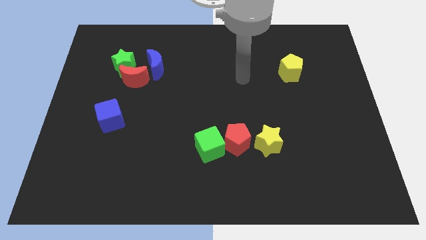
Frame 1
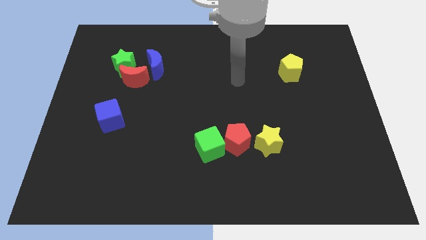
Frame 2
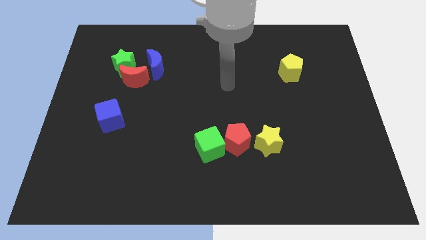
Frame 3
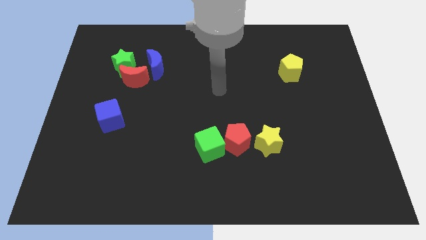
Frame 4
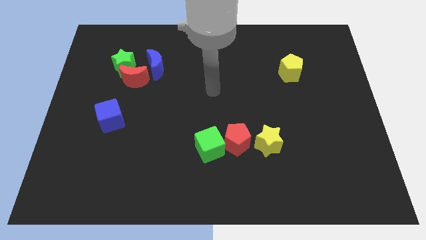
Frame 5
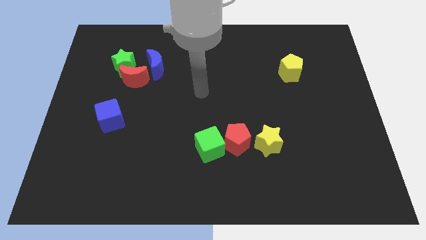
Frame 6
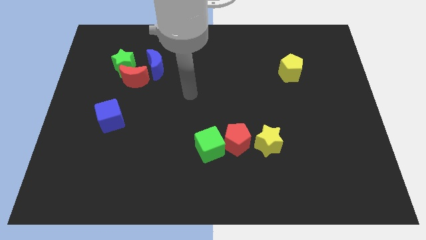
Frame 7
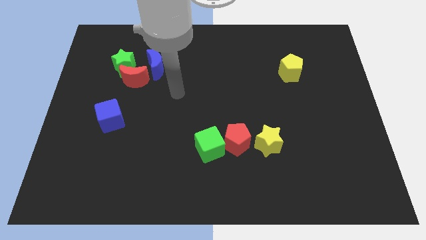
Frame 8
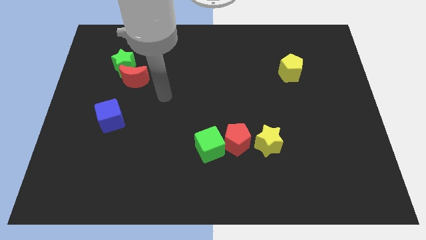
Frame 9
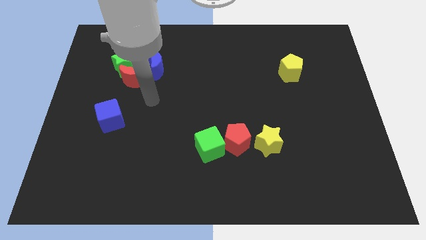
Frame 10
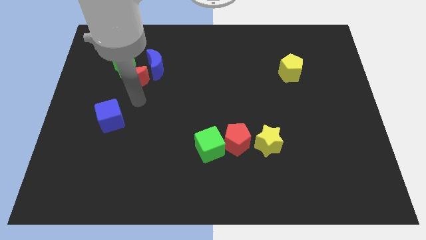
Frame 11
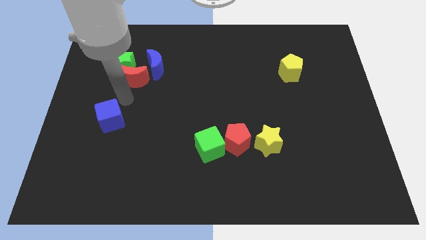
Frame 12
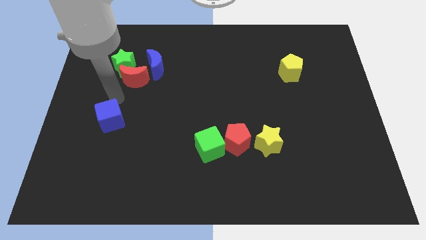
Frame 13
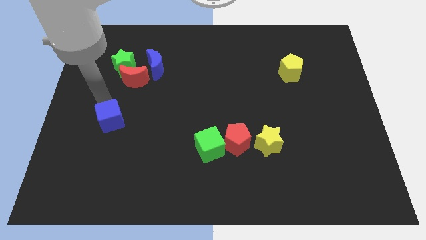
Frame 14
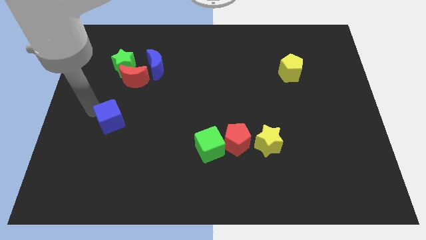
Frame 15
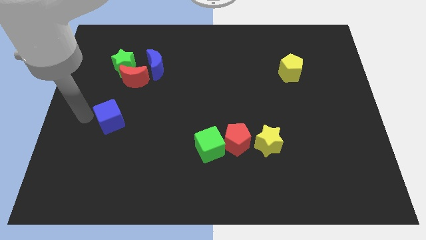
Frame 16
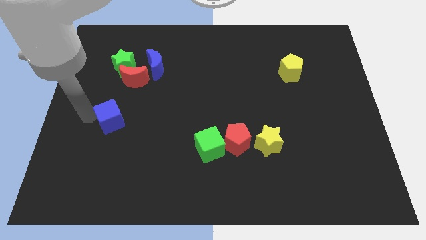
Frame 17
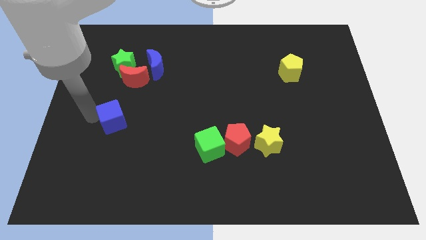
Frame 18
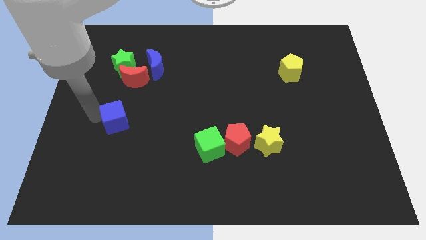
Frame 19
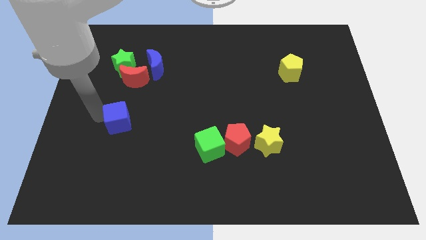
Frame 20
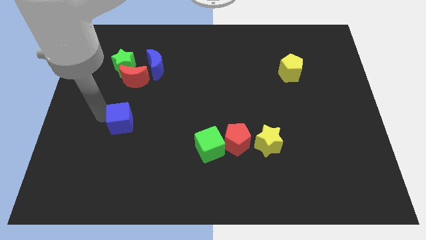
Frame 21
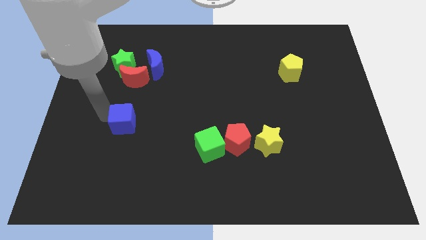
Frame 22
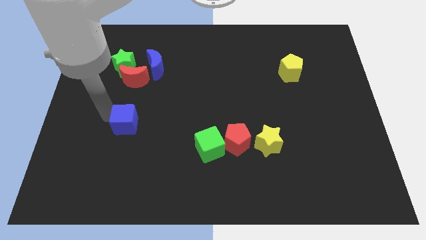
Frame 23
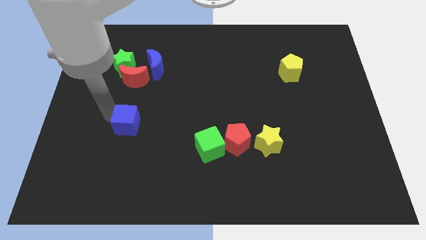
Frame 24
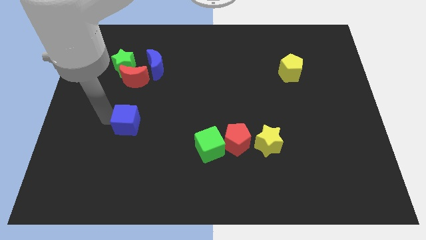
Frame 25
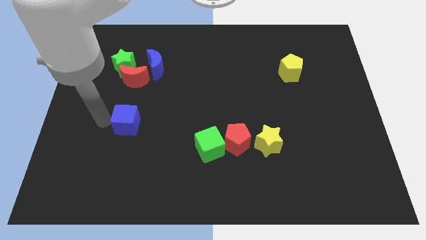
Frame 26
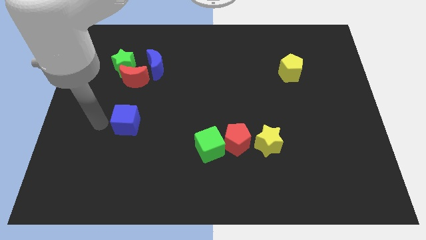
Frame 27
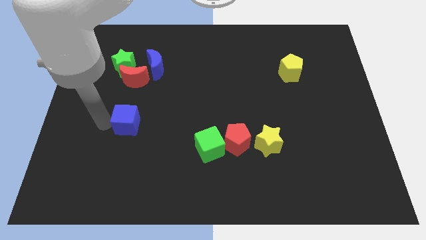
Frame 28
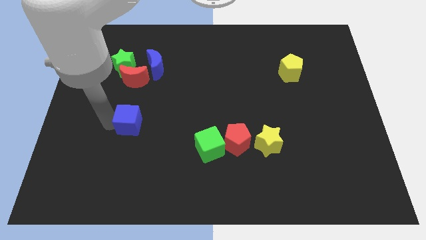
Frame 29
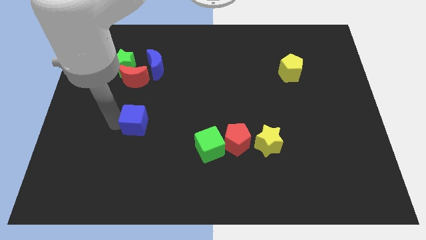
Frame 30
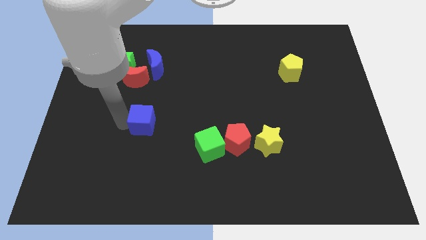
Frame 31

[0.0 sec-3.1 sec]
move the blue cube a little bit to the right

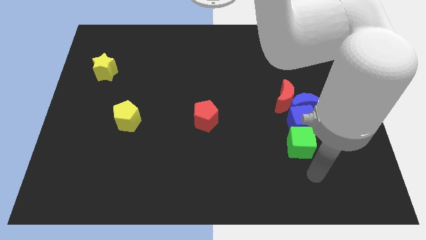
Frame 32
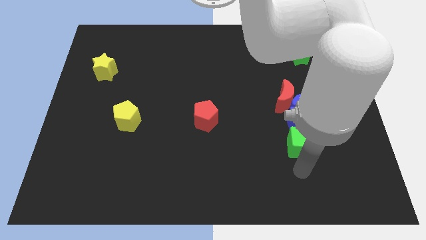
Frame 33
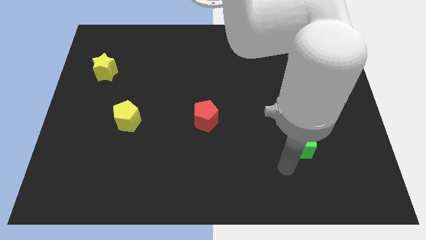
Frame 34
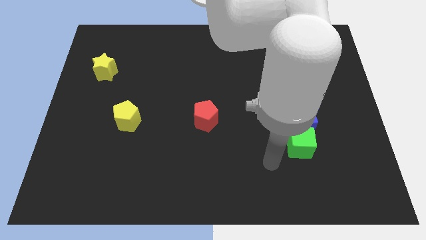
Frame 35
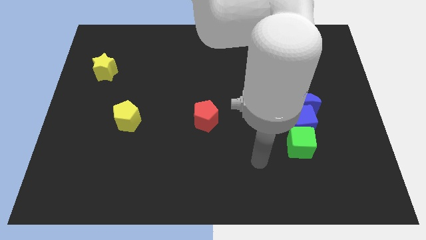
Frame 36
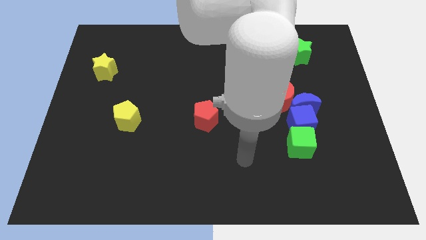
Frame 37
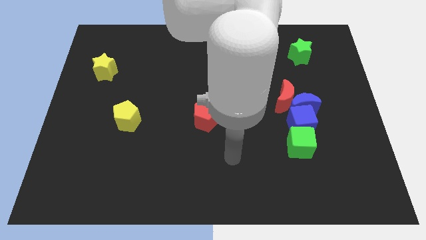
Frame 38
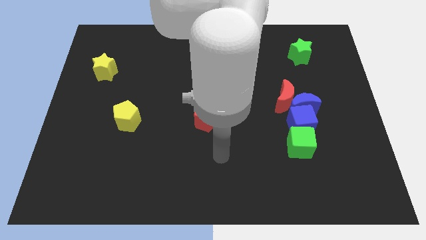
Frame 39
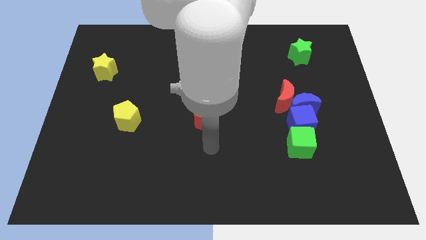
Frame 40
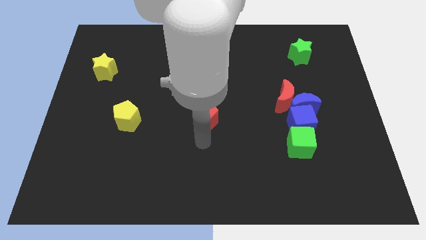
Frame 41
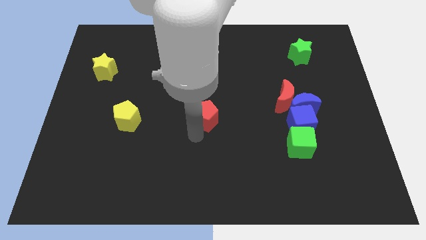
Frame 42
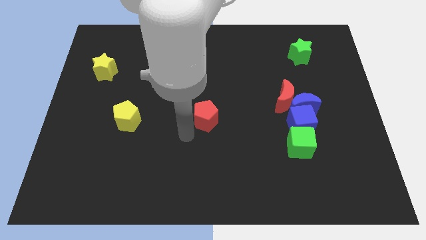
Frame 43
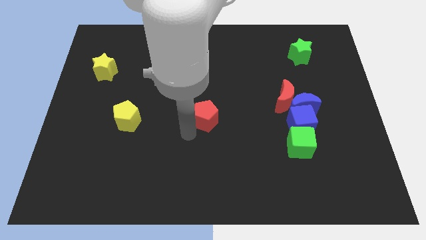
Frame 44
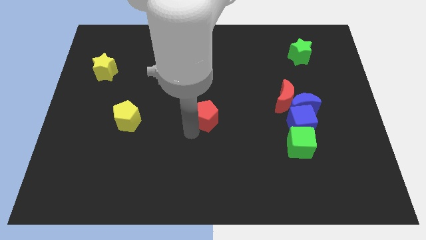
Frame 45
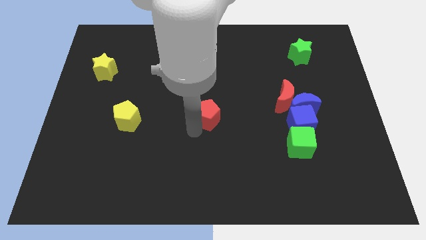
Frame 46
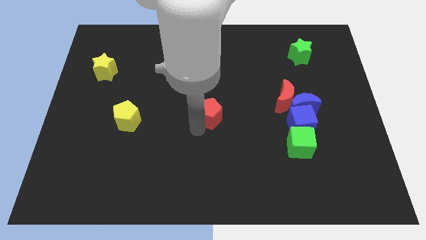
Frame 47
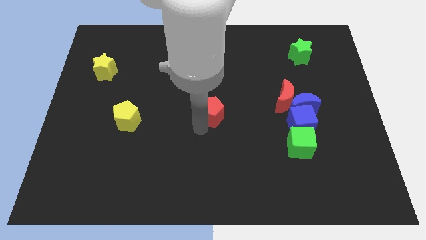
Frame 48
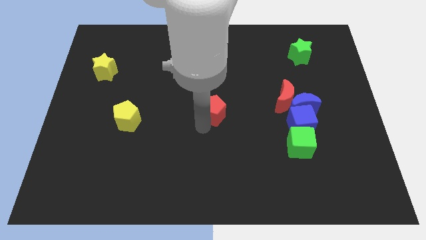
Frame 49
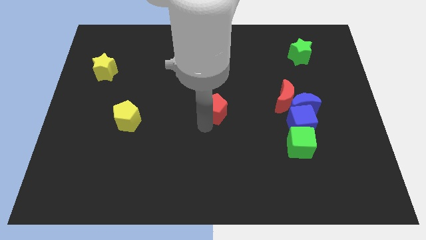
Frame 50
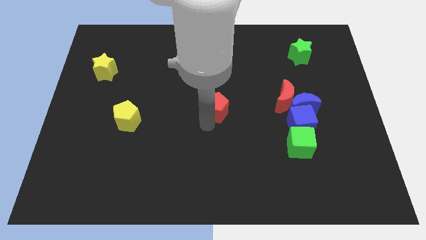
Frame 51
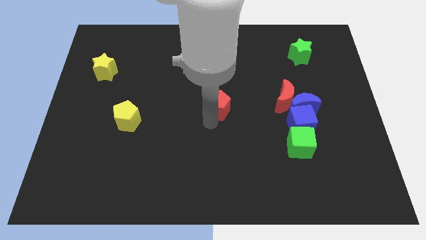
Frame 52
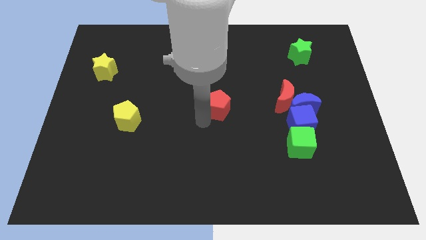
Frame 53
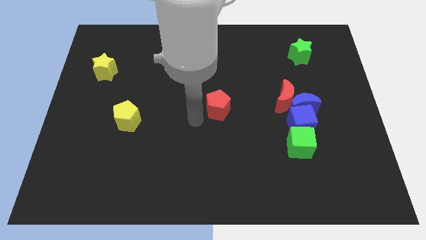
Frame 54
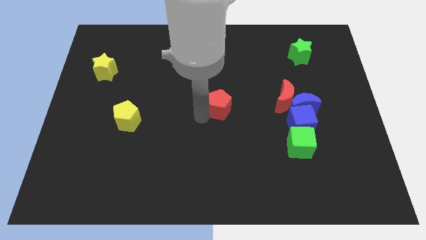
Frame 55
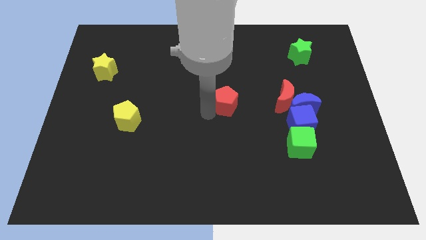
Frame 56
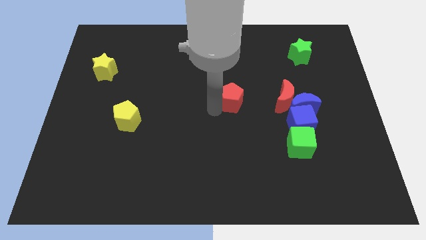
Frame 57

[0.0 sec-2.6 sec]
slightly slide the red pentagon upwards and then to the right

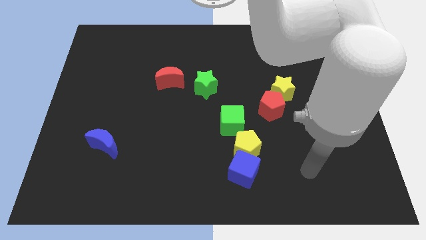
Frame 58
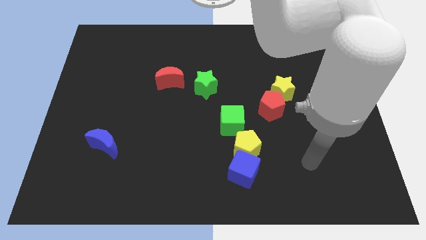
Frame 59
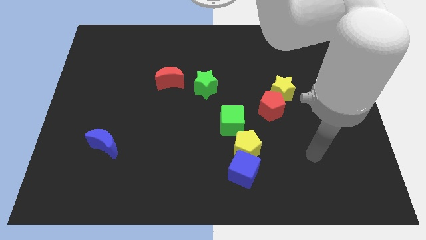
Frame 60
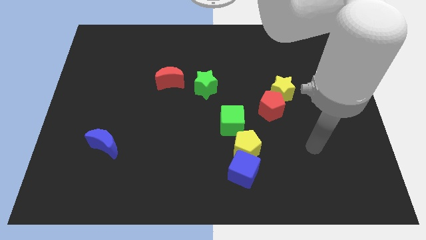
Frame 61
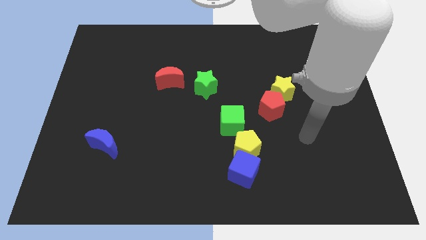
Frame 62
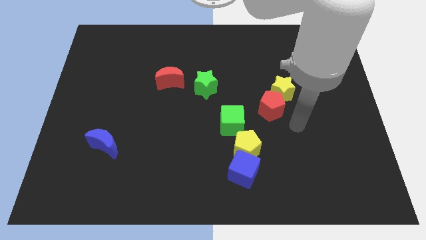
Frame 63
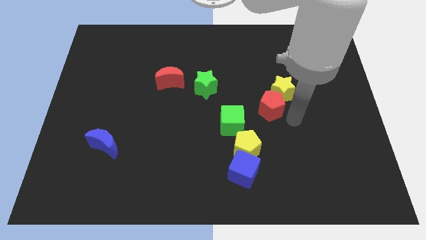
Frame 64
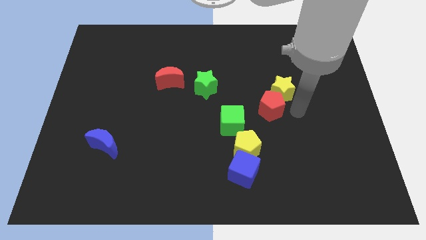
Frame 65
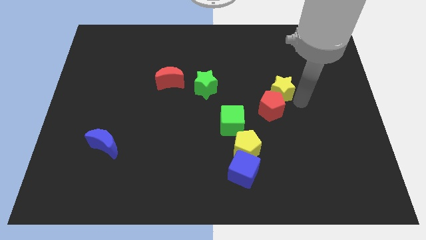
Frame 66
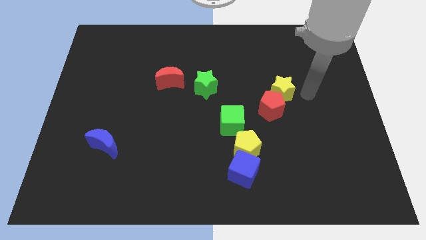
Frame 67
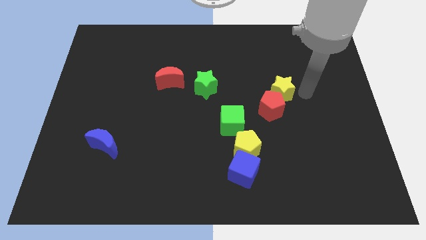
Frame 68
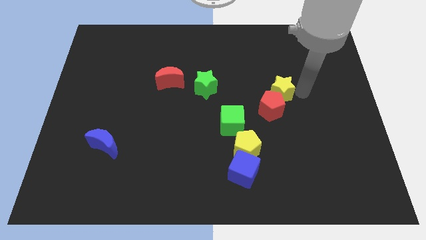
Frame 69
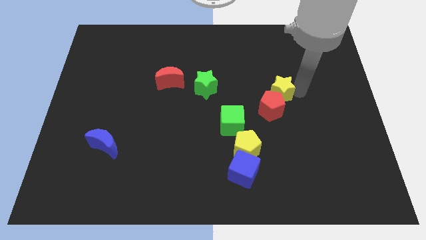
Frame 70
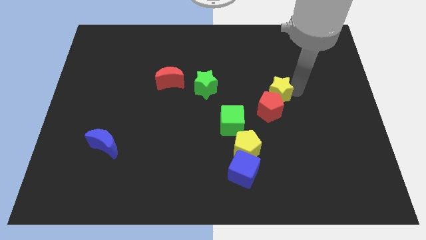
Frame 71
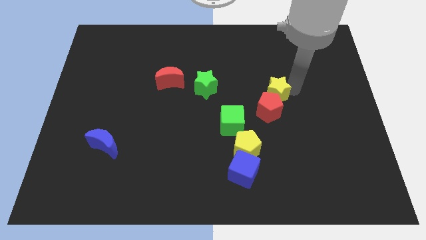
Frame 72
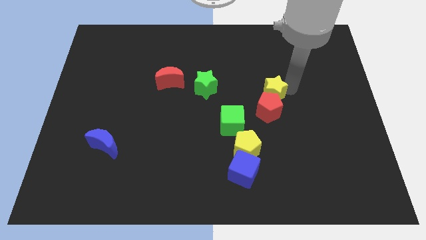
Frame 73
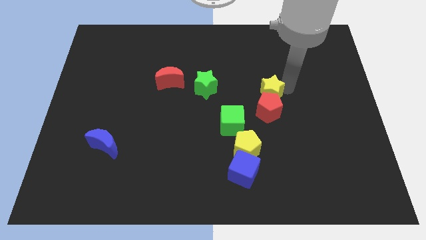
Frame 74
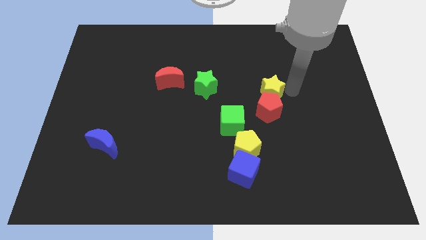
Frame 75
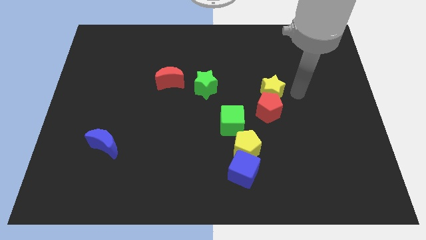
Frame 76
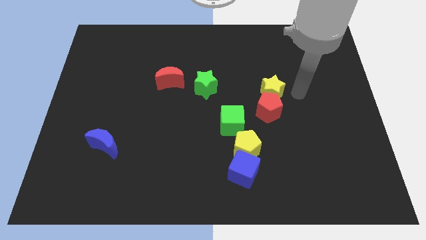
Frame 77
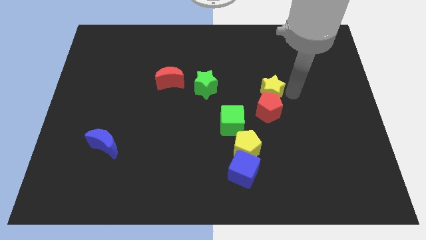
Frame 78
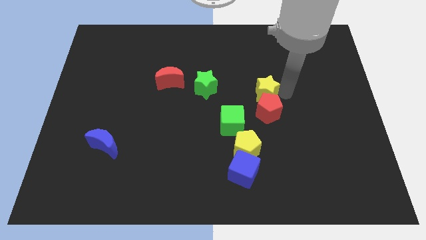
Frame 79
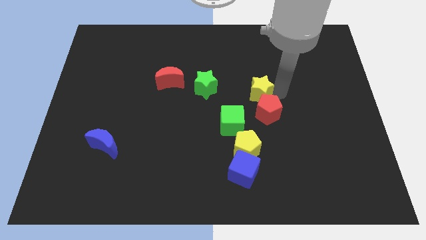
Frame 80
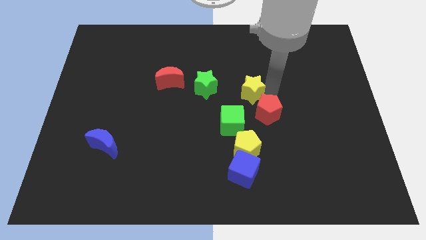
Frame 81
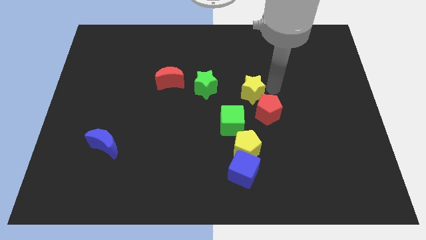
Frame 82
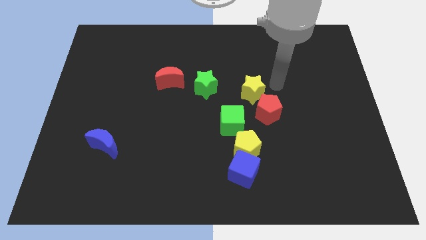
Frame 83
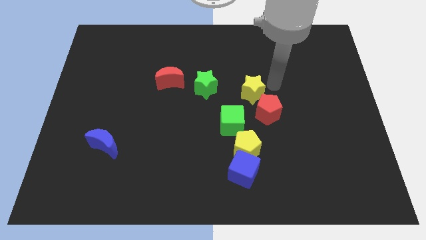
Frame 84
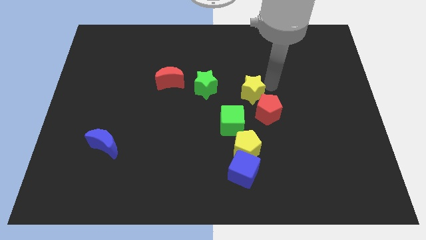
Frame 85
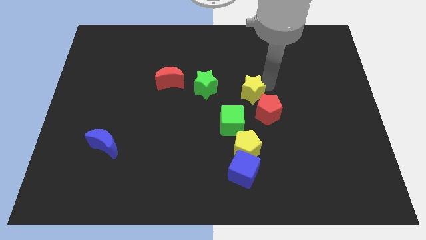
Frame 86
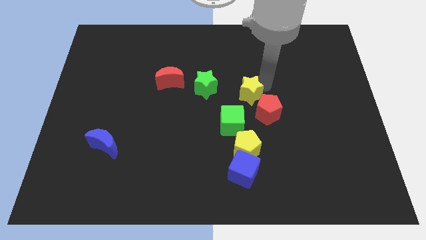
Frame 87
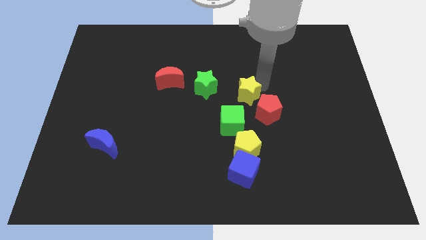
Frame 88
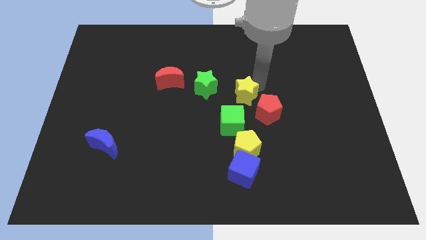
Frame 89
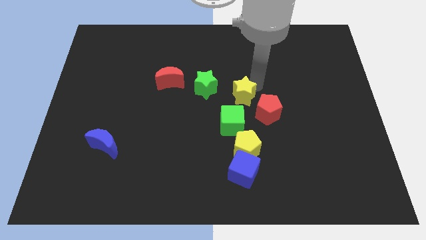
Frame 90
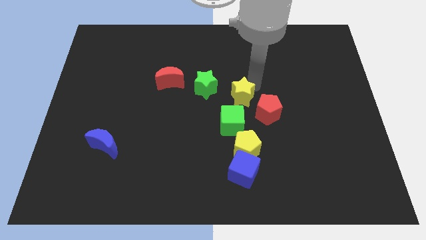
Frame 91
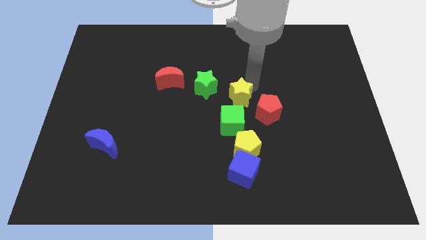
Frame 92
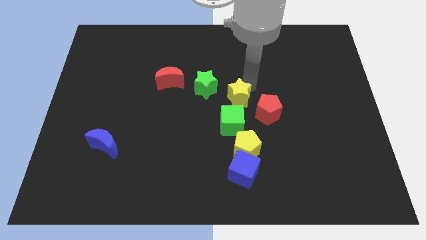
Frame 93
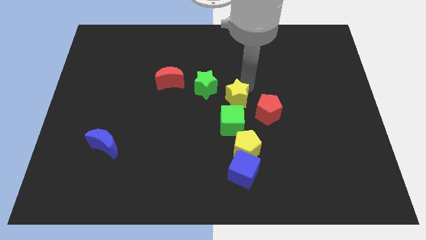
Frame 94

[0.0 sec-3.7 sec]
push the yellow star down and left diagonally slightly
